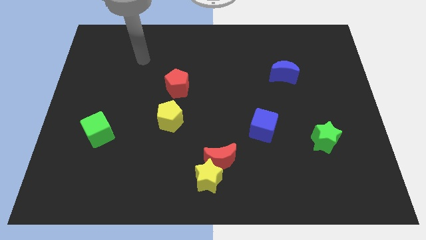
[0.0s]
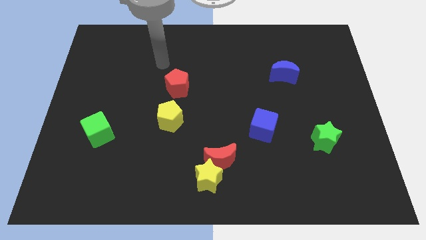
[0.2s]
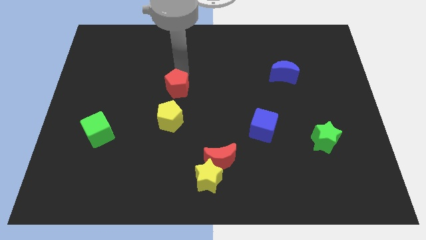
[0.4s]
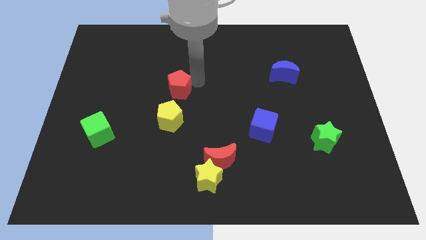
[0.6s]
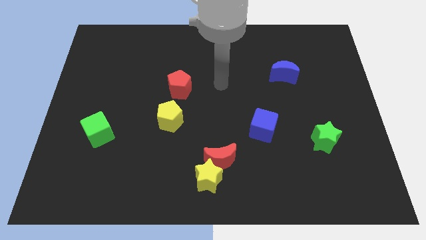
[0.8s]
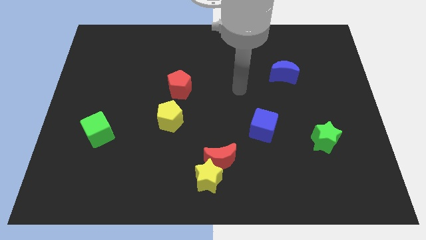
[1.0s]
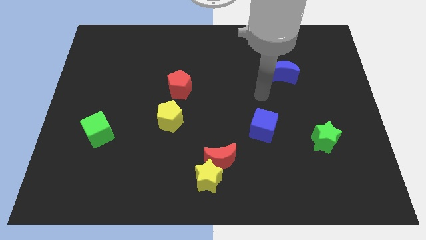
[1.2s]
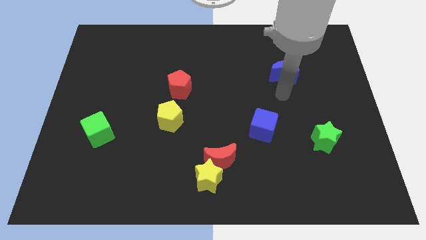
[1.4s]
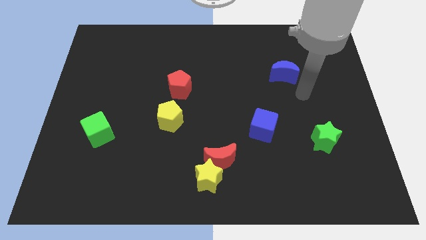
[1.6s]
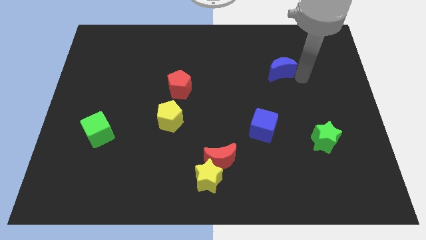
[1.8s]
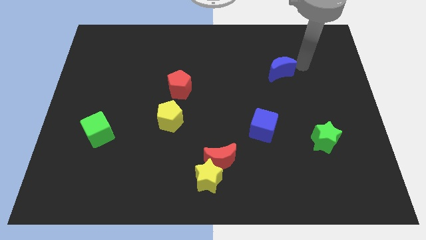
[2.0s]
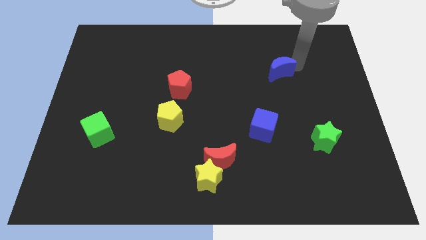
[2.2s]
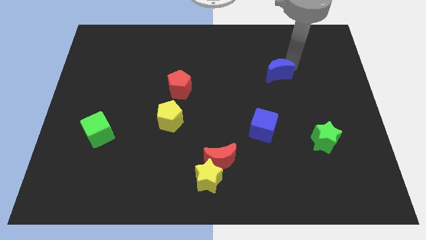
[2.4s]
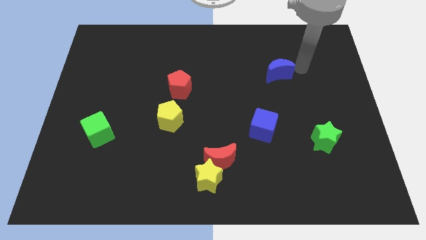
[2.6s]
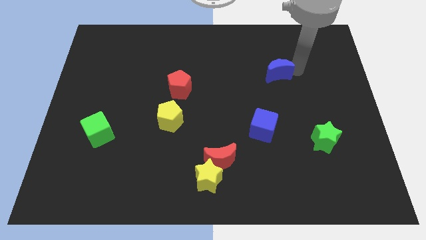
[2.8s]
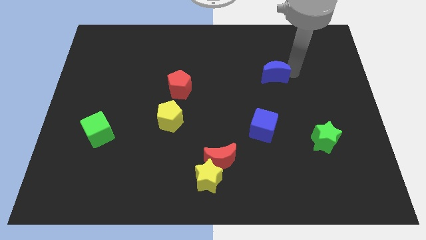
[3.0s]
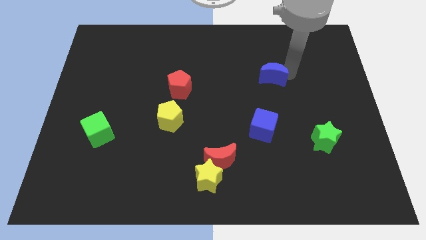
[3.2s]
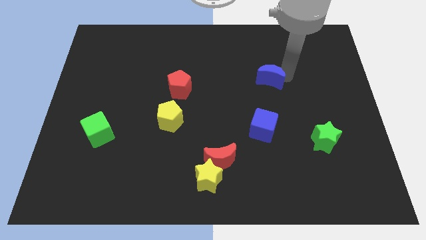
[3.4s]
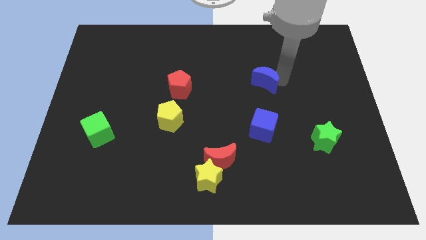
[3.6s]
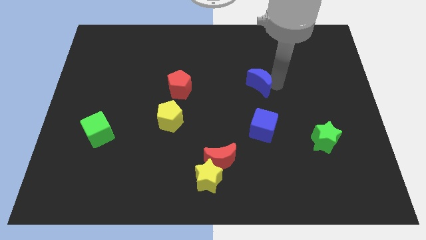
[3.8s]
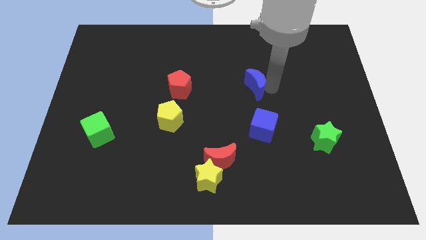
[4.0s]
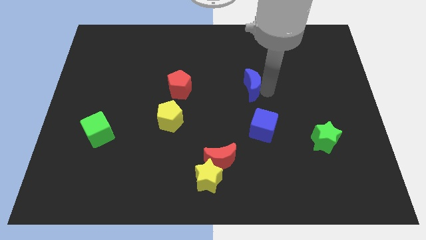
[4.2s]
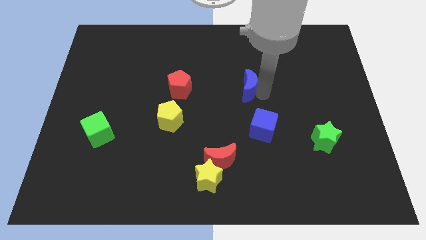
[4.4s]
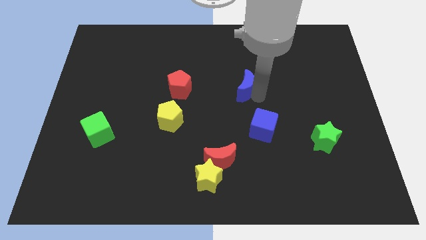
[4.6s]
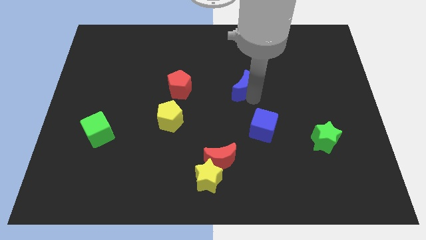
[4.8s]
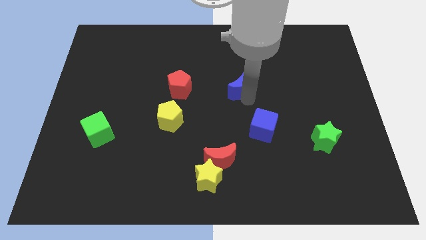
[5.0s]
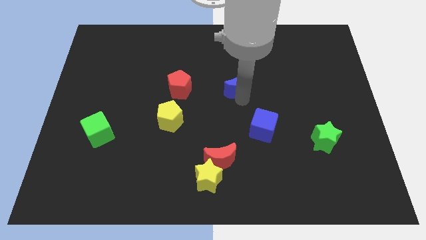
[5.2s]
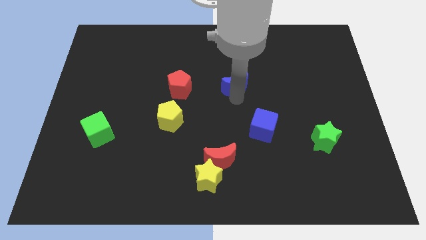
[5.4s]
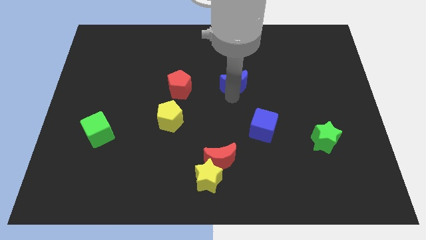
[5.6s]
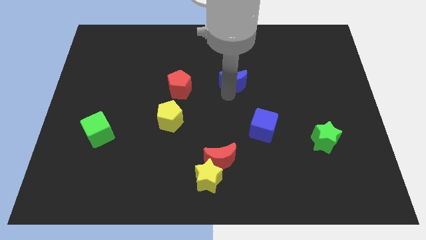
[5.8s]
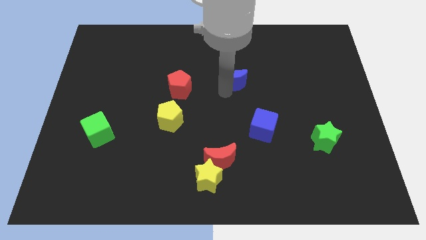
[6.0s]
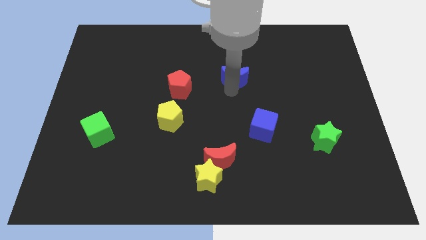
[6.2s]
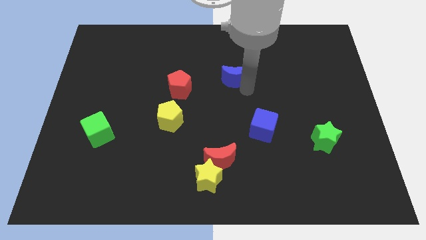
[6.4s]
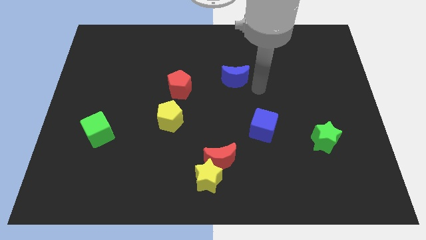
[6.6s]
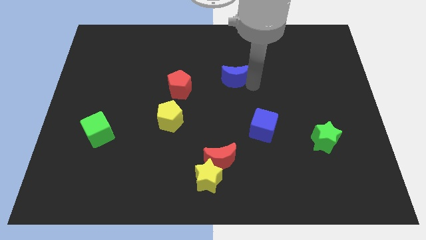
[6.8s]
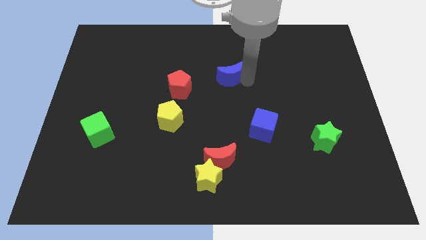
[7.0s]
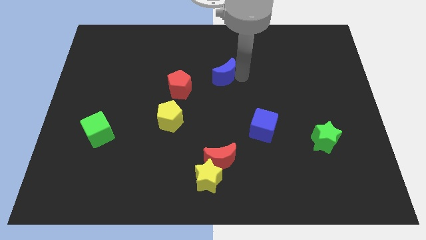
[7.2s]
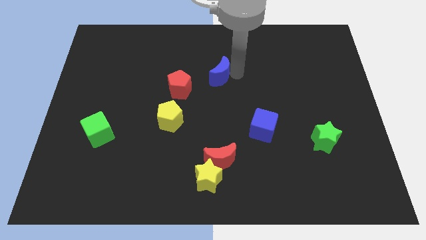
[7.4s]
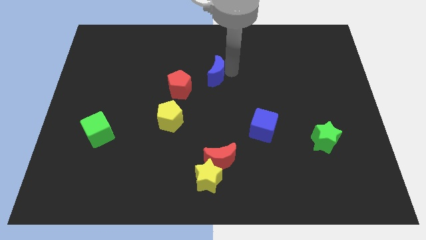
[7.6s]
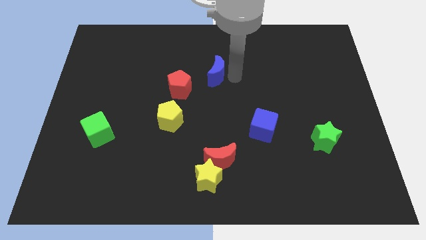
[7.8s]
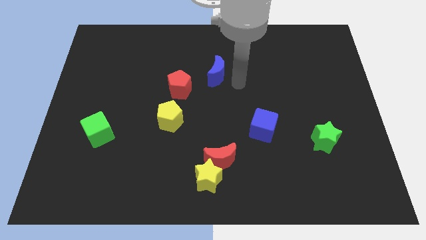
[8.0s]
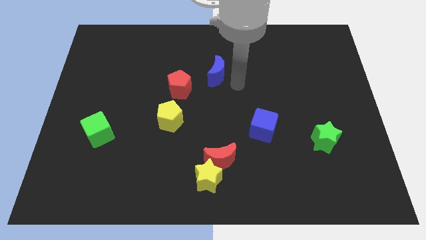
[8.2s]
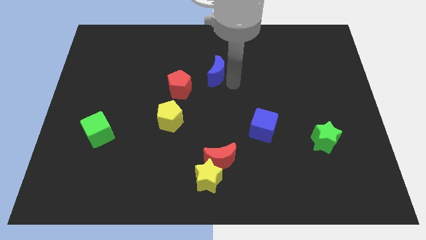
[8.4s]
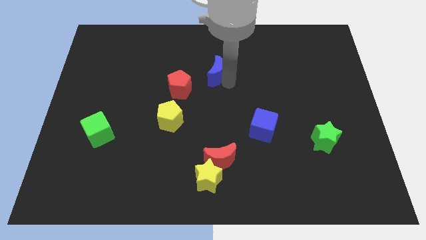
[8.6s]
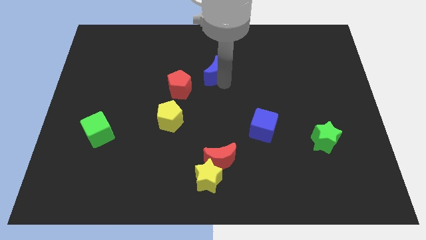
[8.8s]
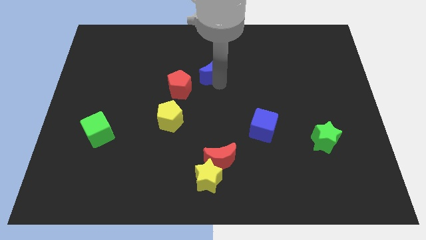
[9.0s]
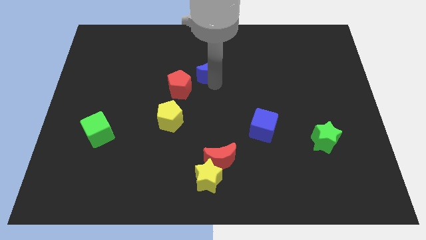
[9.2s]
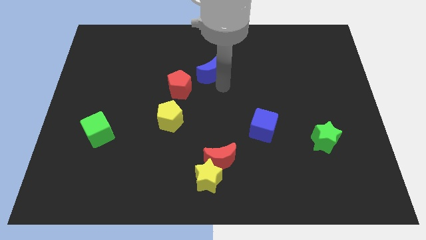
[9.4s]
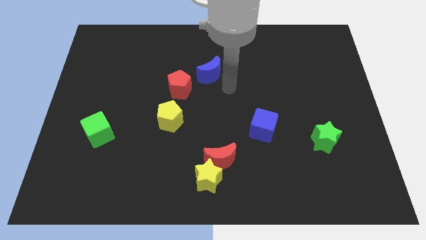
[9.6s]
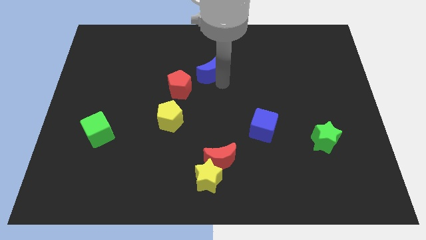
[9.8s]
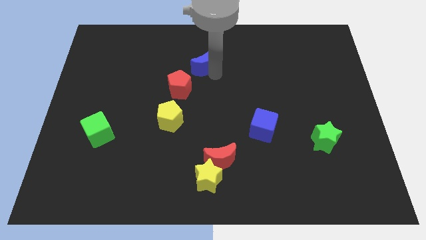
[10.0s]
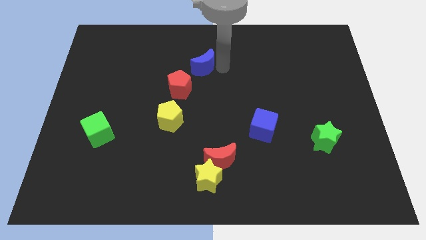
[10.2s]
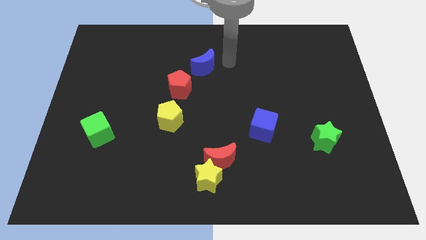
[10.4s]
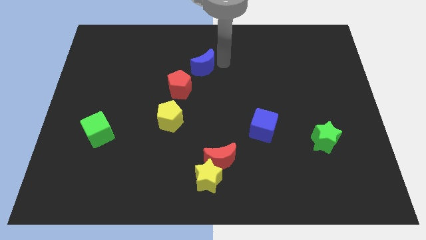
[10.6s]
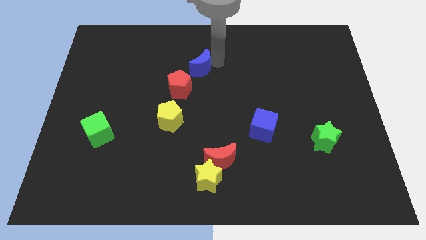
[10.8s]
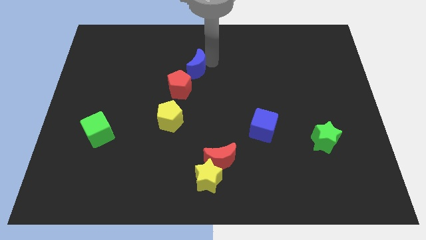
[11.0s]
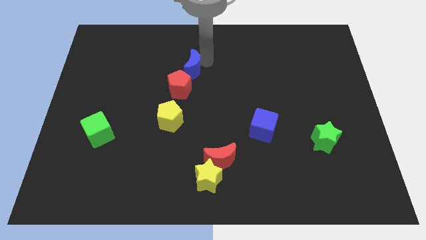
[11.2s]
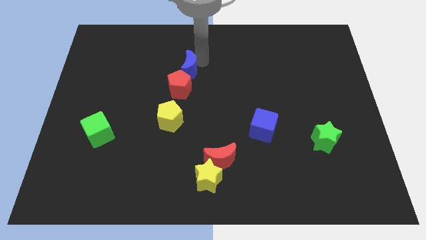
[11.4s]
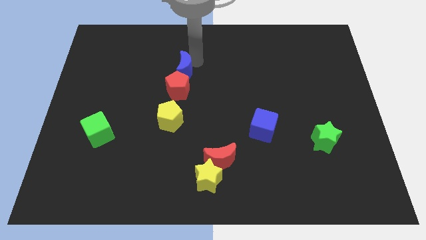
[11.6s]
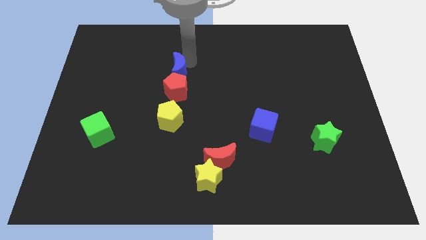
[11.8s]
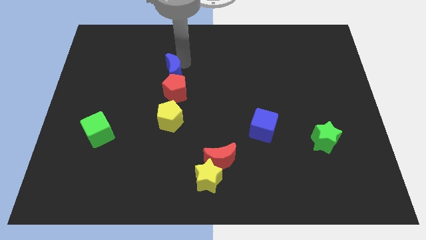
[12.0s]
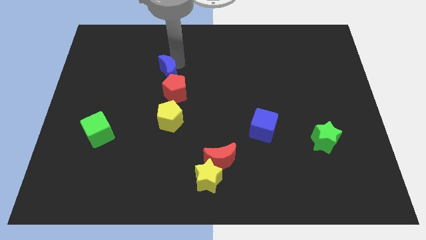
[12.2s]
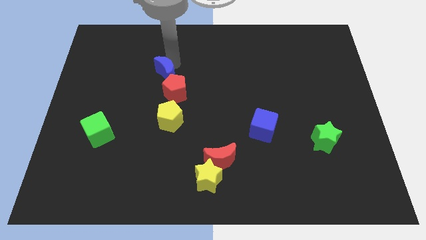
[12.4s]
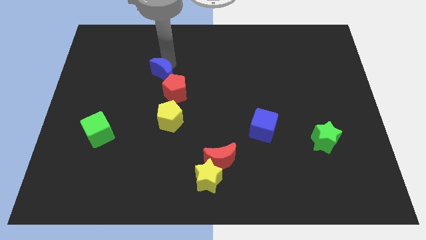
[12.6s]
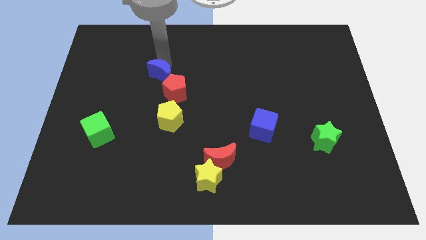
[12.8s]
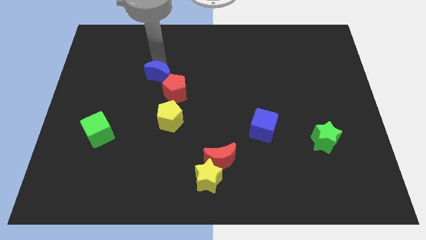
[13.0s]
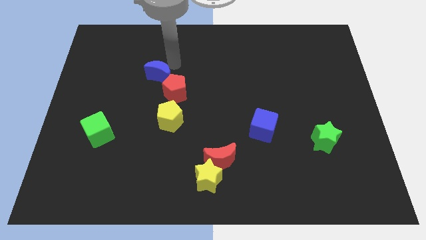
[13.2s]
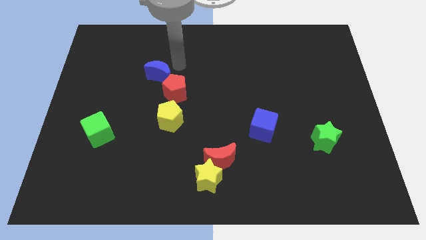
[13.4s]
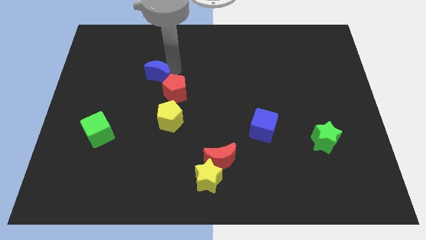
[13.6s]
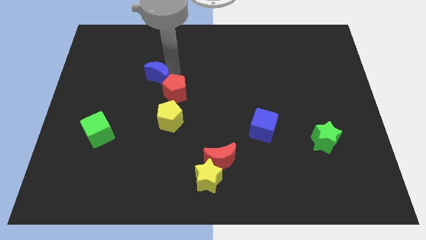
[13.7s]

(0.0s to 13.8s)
put the blue moon left of the red pentagon
